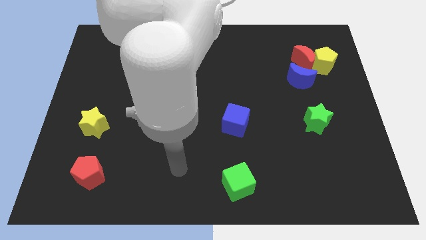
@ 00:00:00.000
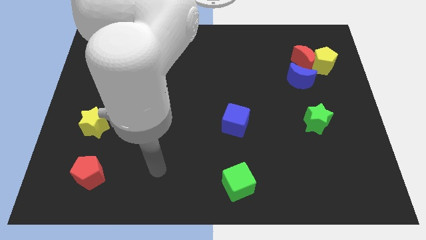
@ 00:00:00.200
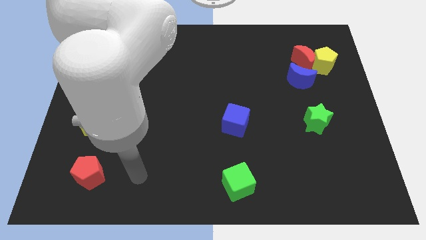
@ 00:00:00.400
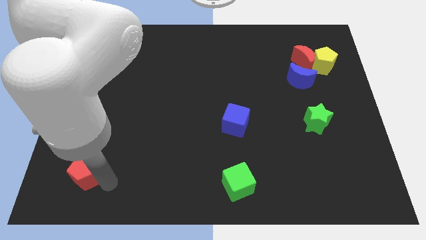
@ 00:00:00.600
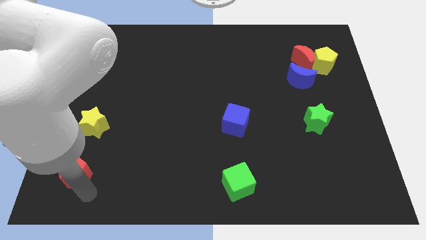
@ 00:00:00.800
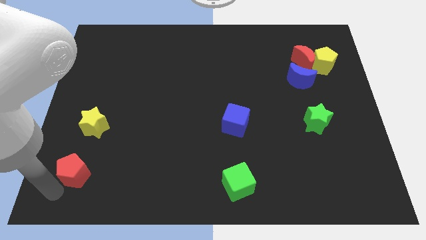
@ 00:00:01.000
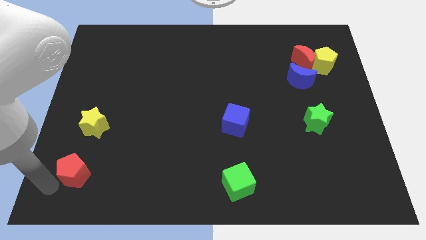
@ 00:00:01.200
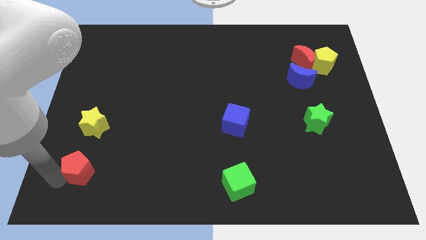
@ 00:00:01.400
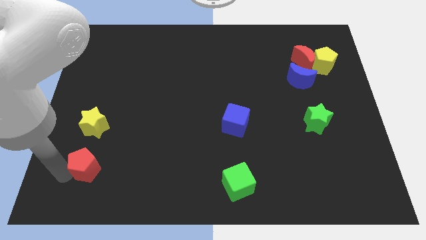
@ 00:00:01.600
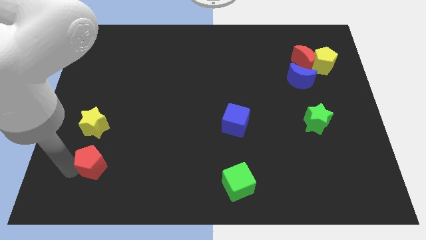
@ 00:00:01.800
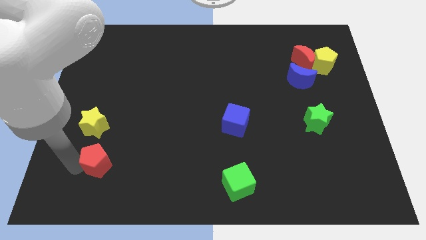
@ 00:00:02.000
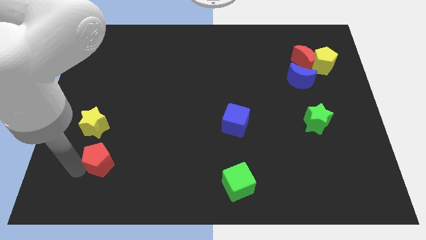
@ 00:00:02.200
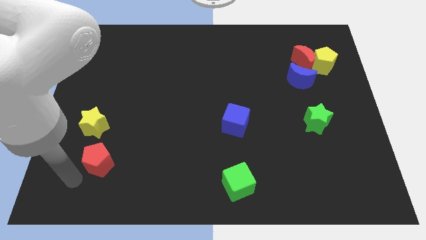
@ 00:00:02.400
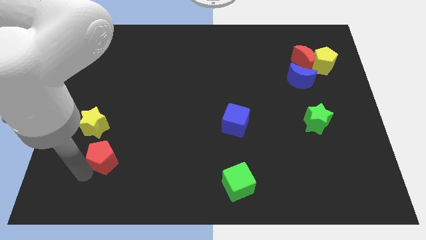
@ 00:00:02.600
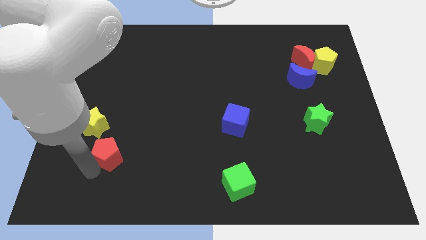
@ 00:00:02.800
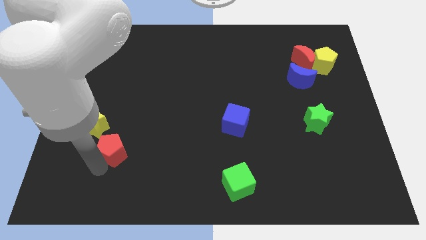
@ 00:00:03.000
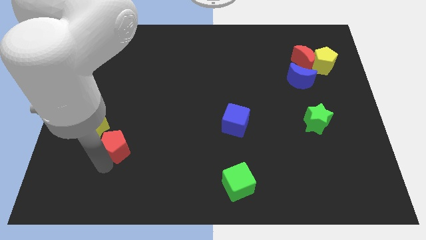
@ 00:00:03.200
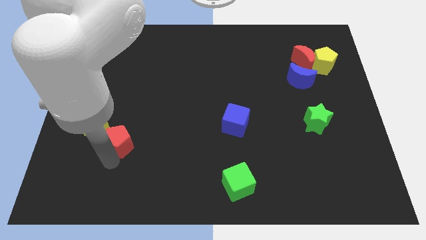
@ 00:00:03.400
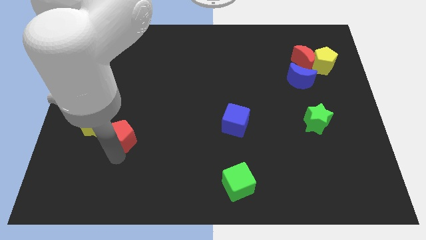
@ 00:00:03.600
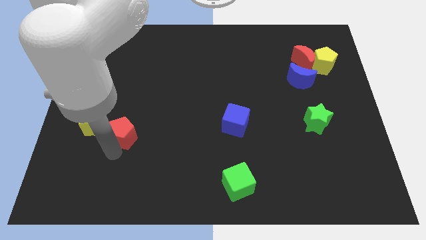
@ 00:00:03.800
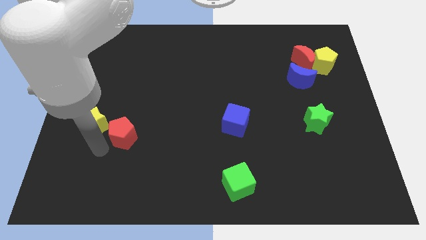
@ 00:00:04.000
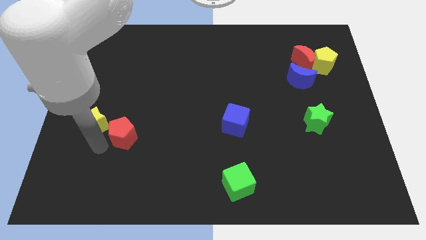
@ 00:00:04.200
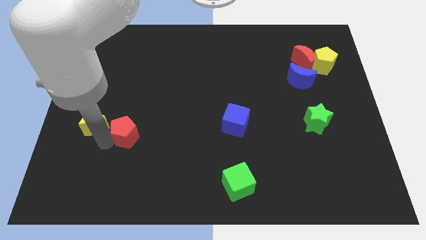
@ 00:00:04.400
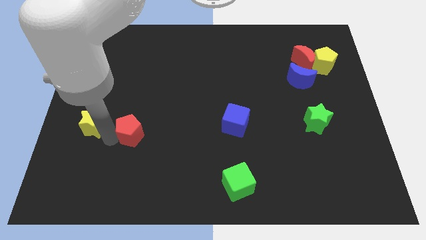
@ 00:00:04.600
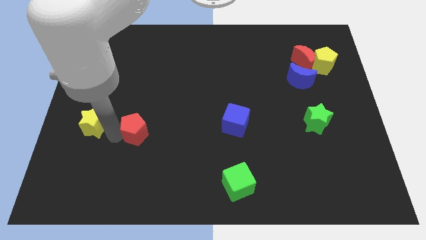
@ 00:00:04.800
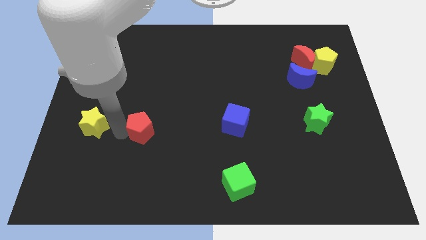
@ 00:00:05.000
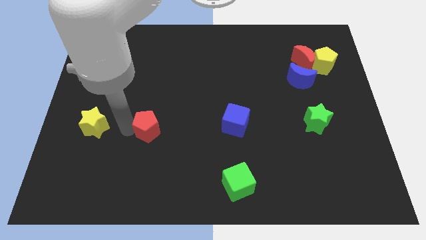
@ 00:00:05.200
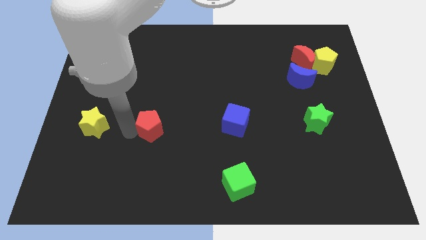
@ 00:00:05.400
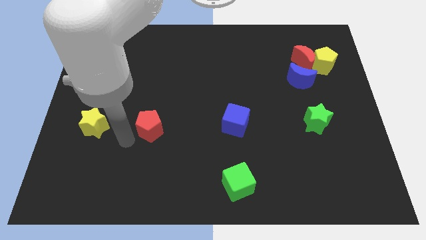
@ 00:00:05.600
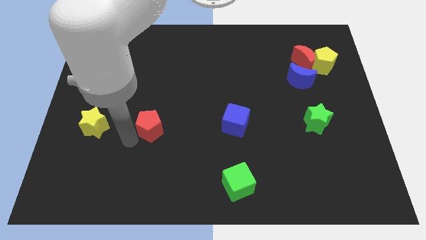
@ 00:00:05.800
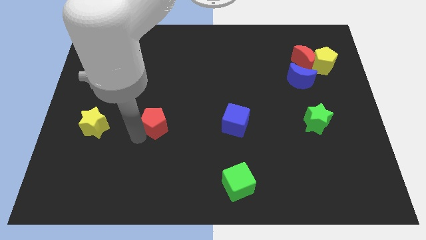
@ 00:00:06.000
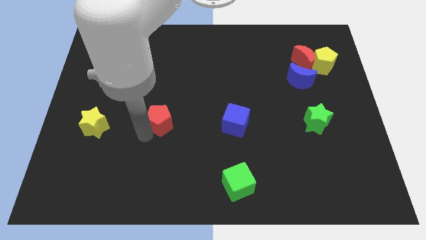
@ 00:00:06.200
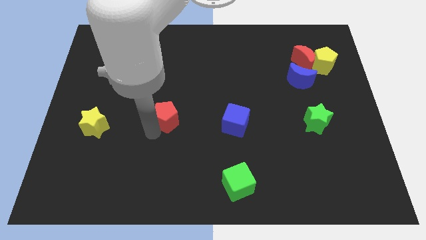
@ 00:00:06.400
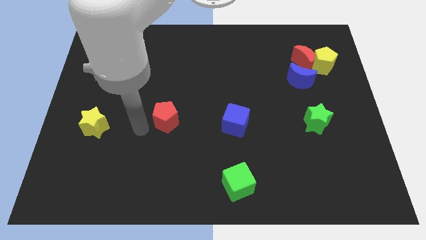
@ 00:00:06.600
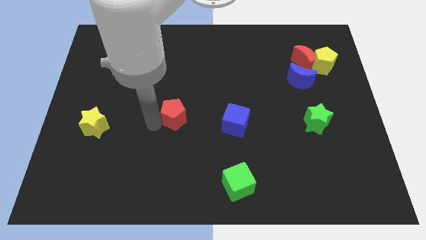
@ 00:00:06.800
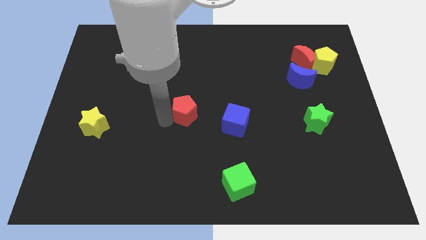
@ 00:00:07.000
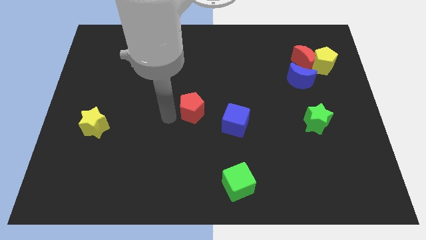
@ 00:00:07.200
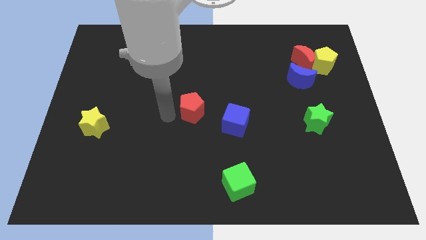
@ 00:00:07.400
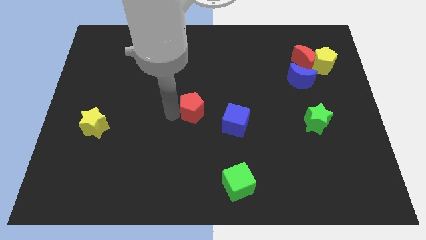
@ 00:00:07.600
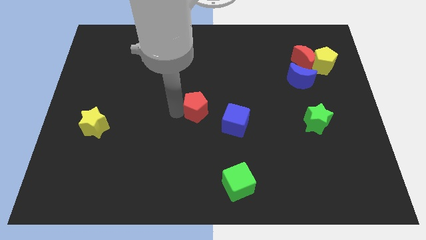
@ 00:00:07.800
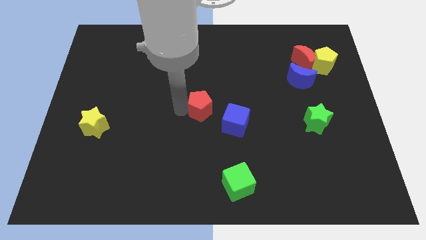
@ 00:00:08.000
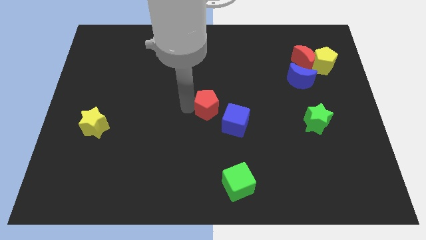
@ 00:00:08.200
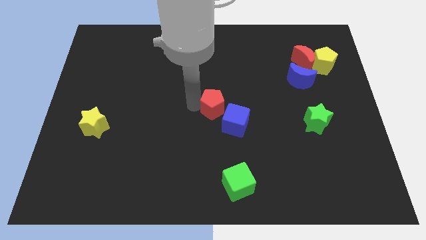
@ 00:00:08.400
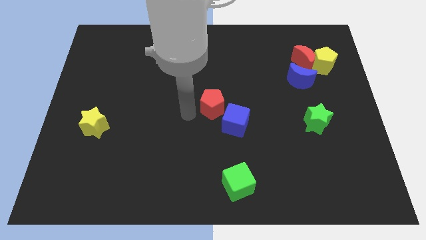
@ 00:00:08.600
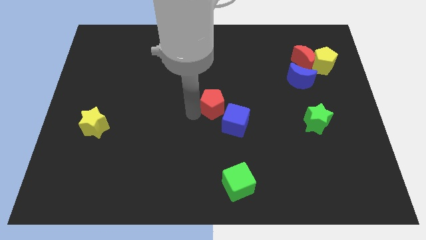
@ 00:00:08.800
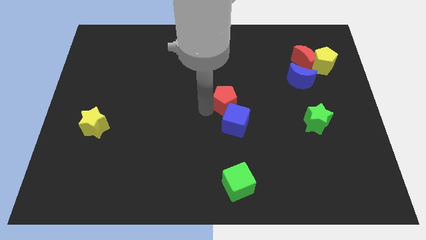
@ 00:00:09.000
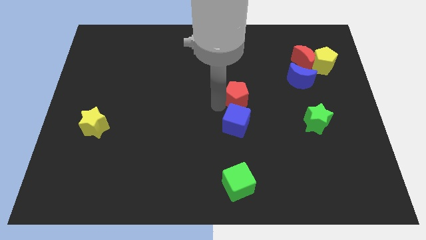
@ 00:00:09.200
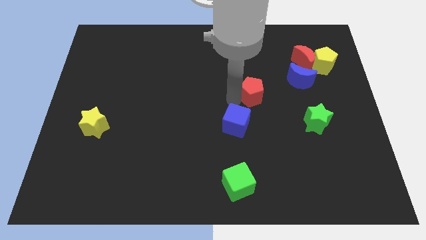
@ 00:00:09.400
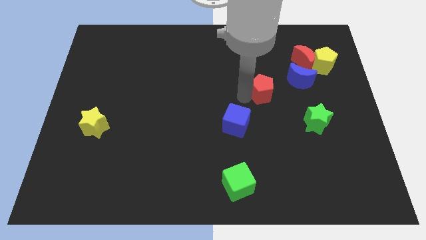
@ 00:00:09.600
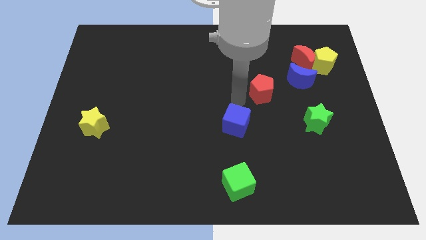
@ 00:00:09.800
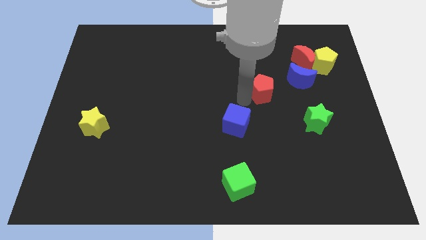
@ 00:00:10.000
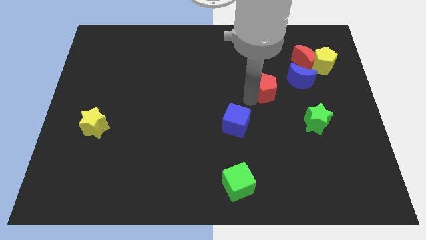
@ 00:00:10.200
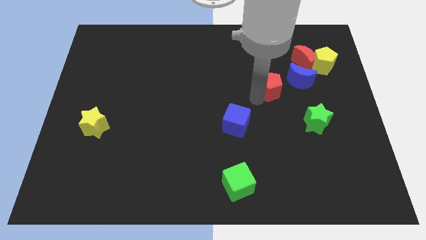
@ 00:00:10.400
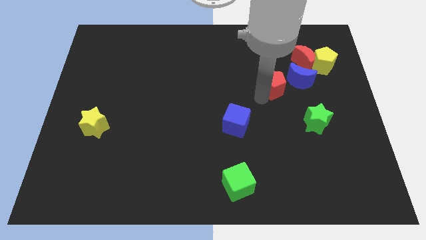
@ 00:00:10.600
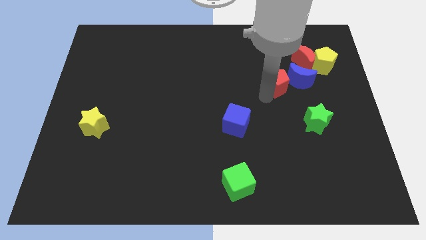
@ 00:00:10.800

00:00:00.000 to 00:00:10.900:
slide the red pentagon to the blue moon

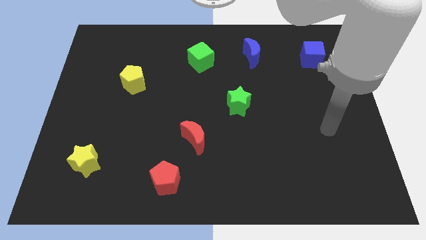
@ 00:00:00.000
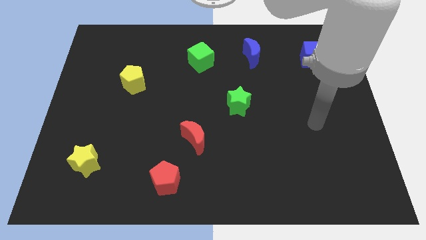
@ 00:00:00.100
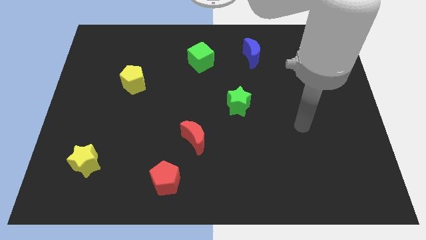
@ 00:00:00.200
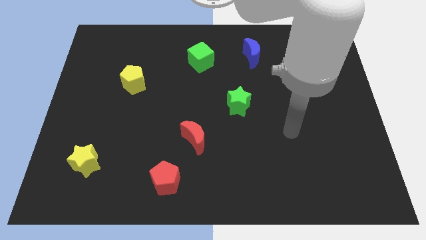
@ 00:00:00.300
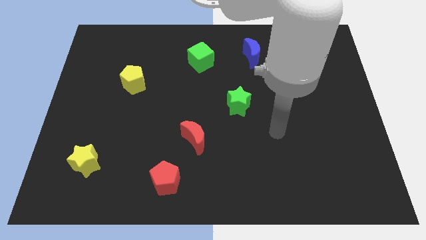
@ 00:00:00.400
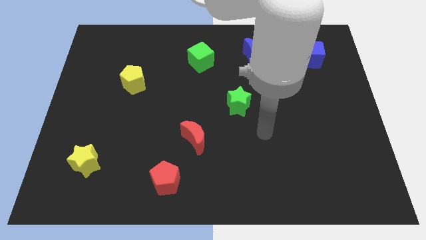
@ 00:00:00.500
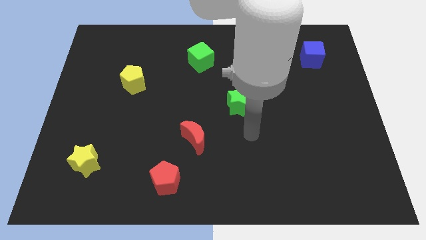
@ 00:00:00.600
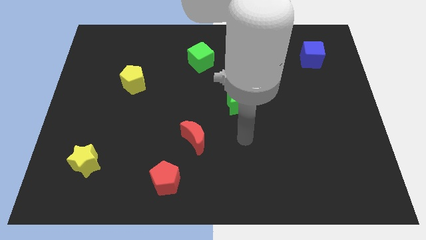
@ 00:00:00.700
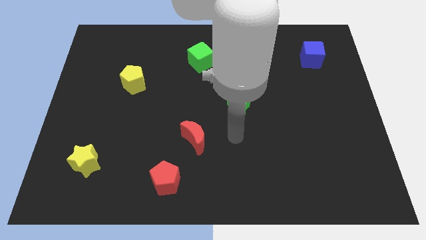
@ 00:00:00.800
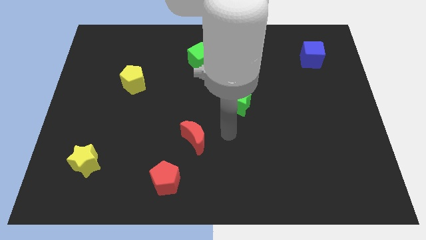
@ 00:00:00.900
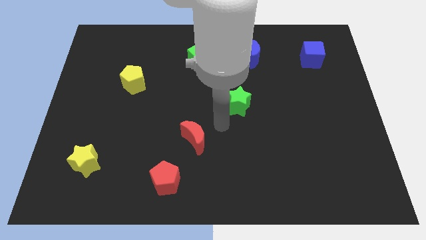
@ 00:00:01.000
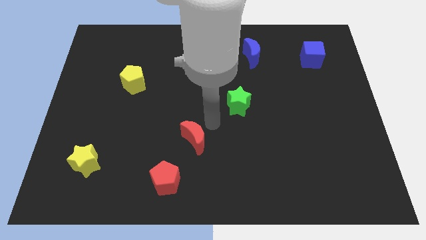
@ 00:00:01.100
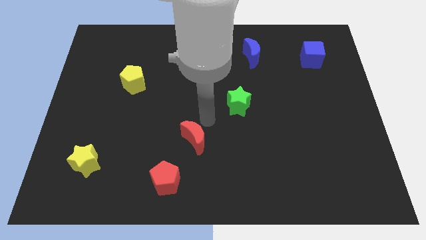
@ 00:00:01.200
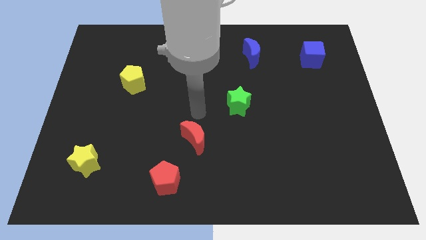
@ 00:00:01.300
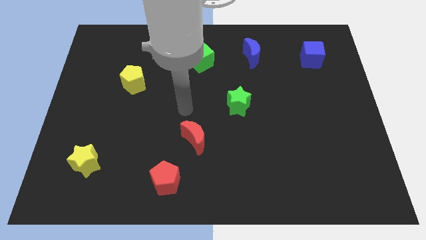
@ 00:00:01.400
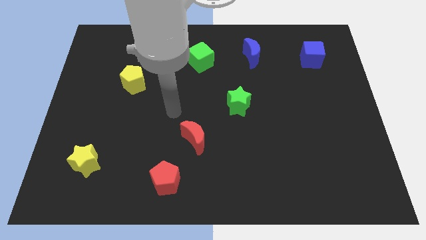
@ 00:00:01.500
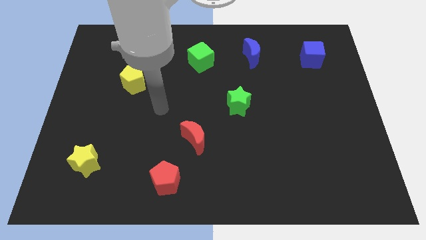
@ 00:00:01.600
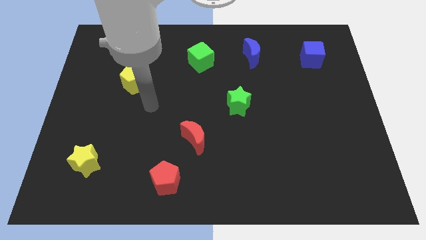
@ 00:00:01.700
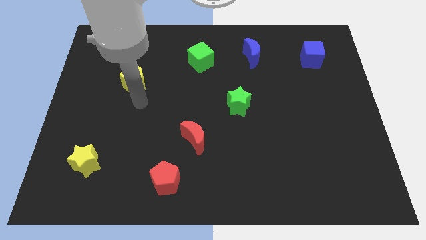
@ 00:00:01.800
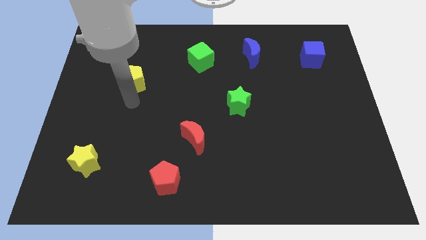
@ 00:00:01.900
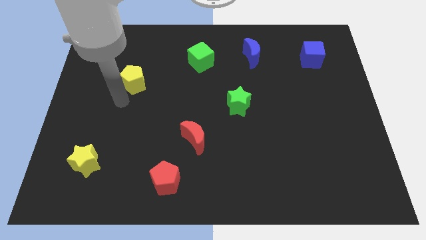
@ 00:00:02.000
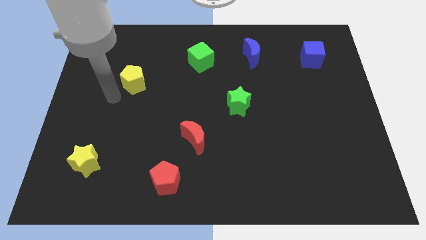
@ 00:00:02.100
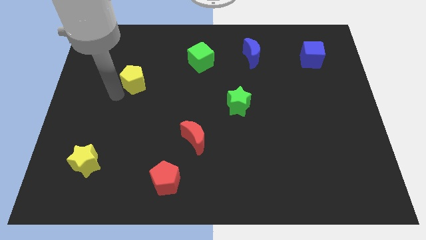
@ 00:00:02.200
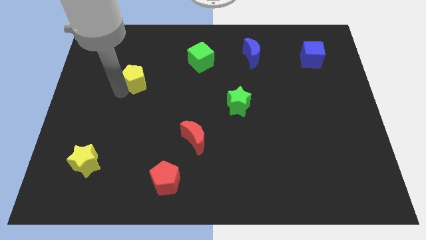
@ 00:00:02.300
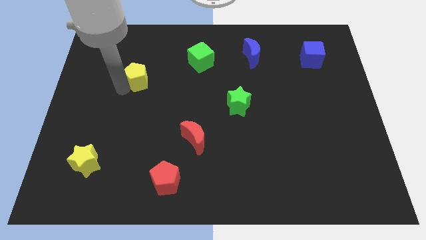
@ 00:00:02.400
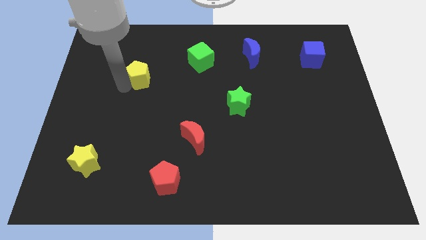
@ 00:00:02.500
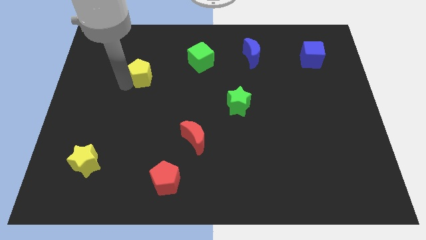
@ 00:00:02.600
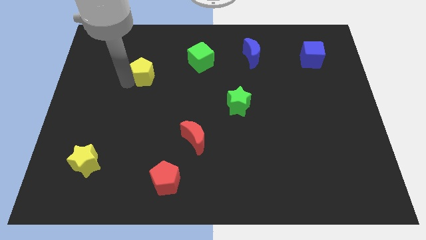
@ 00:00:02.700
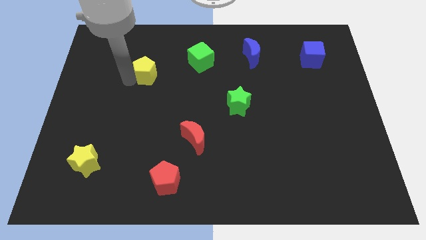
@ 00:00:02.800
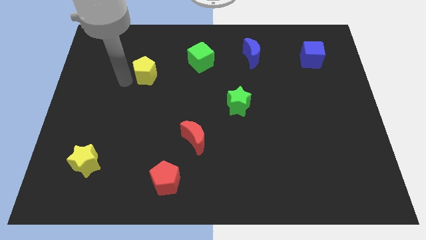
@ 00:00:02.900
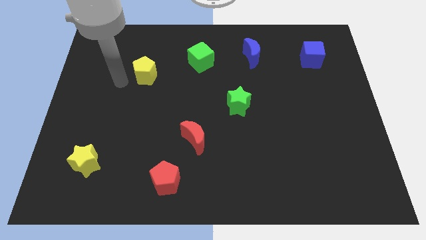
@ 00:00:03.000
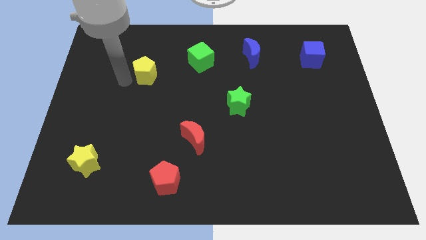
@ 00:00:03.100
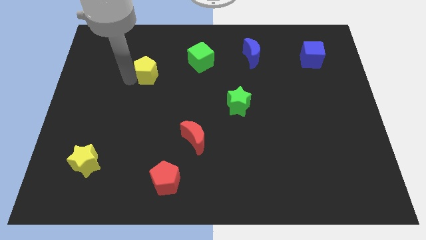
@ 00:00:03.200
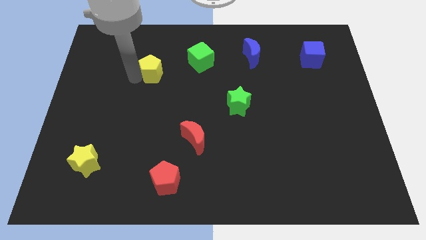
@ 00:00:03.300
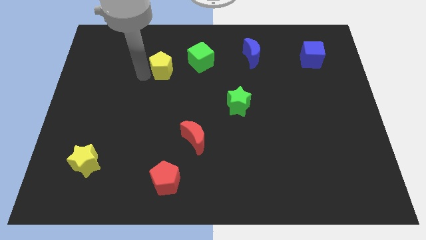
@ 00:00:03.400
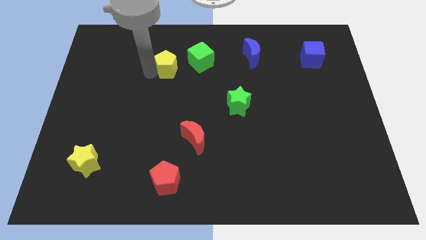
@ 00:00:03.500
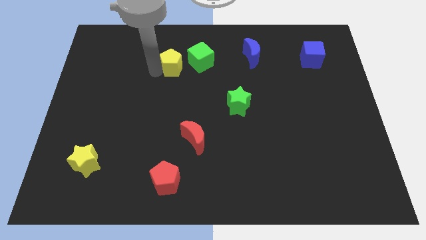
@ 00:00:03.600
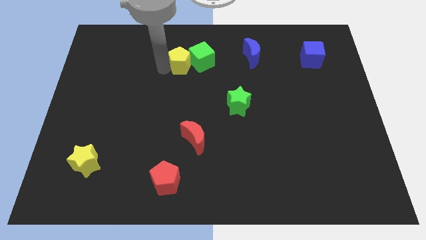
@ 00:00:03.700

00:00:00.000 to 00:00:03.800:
push the yellow pentagon towards the green cube
